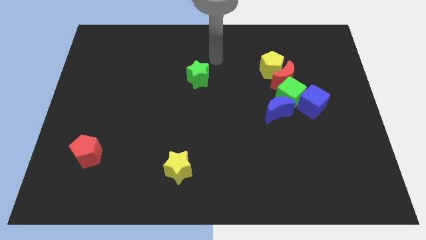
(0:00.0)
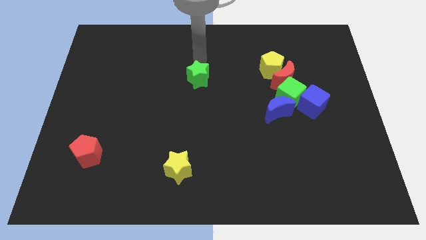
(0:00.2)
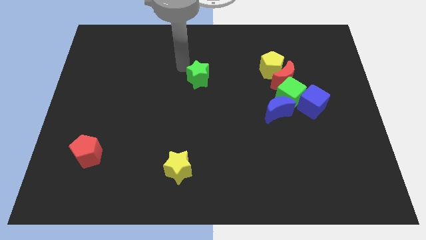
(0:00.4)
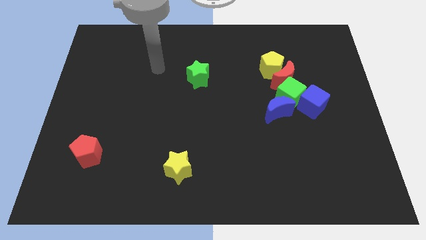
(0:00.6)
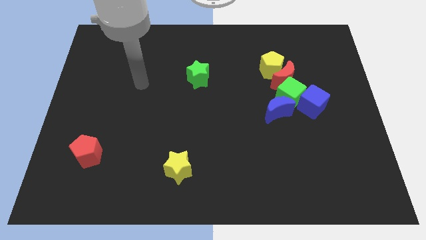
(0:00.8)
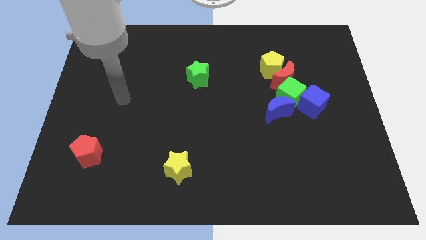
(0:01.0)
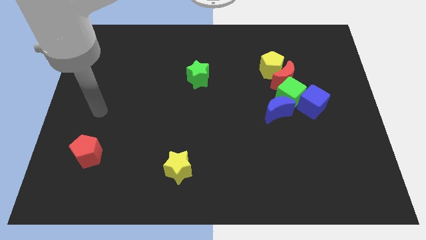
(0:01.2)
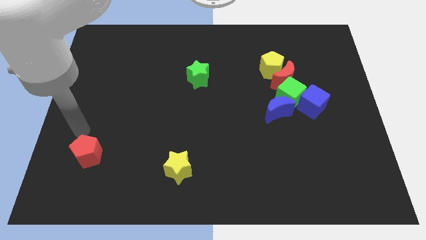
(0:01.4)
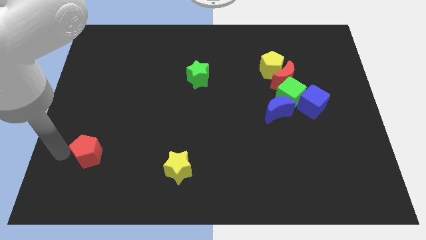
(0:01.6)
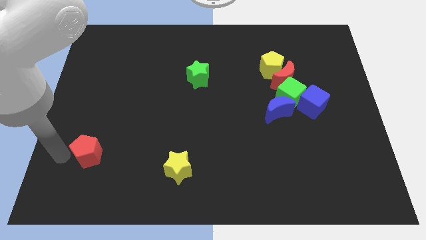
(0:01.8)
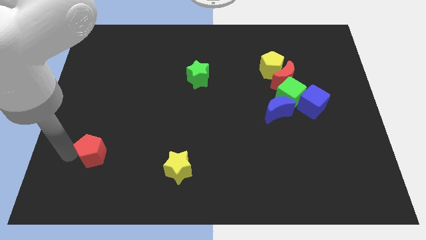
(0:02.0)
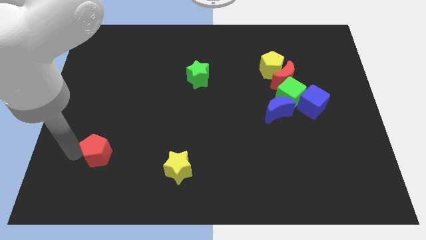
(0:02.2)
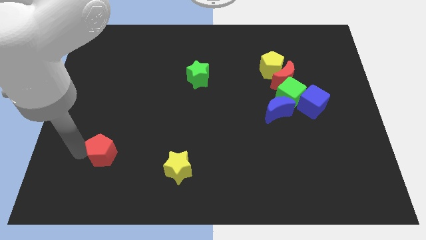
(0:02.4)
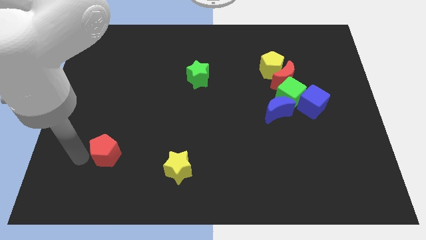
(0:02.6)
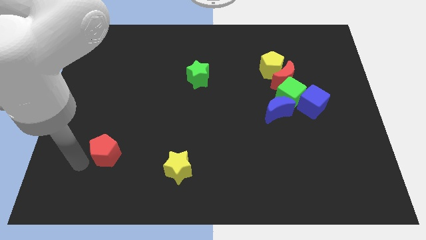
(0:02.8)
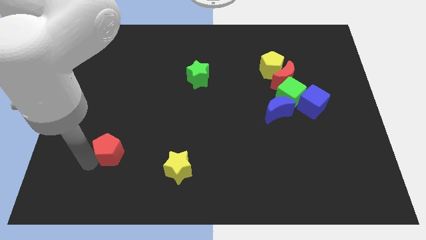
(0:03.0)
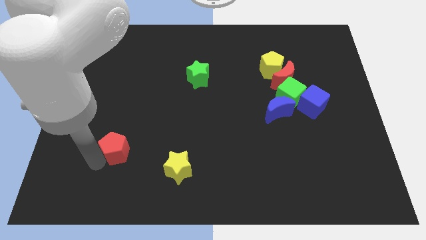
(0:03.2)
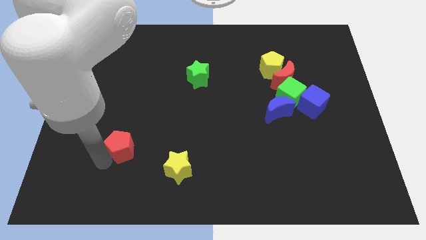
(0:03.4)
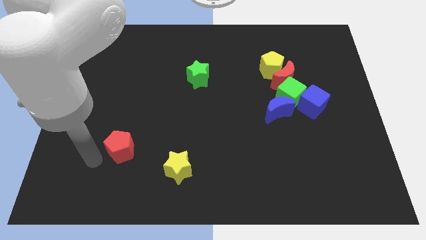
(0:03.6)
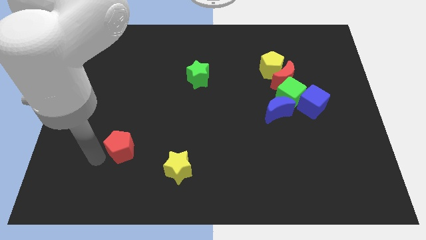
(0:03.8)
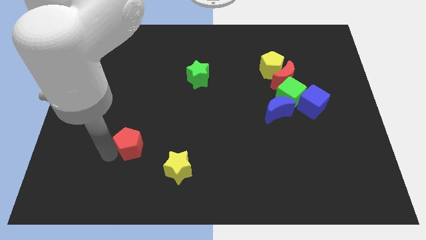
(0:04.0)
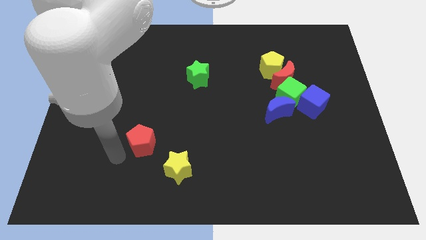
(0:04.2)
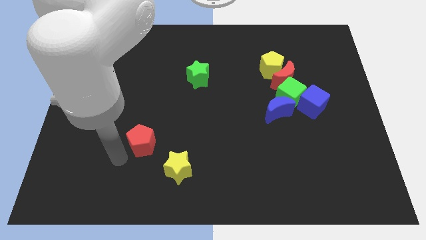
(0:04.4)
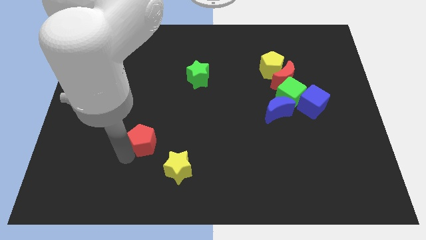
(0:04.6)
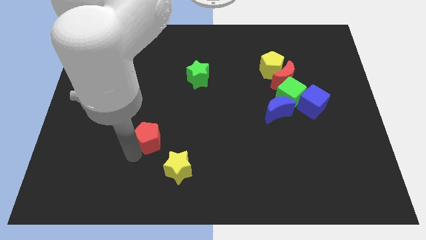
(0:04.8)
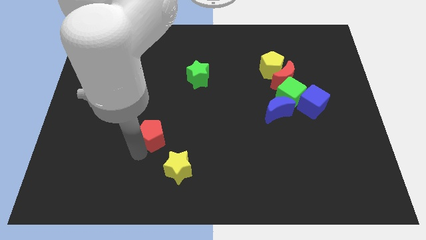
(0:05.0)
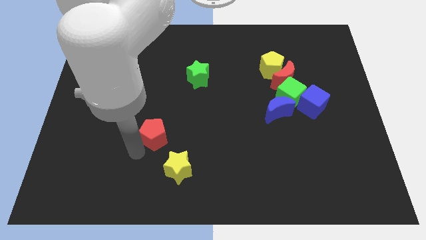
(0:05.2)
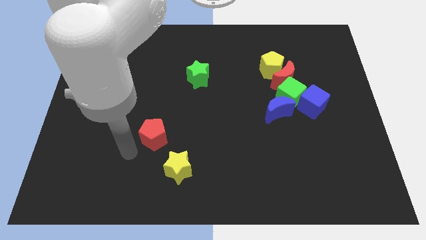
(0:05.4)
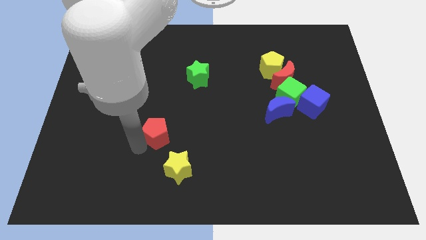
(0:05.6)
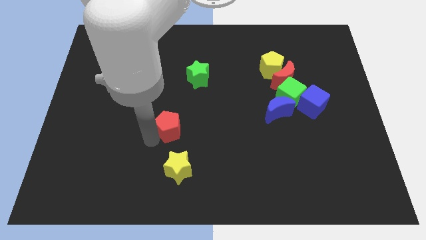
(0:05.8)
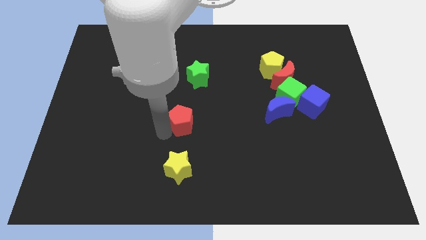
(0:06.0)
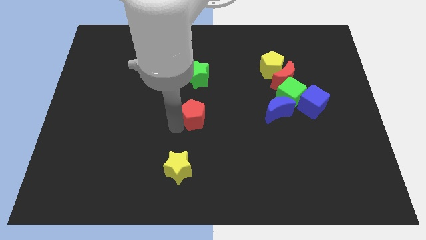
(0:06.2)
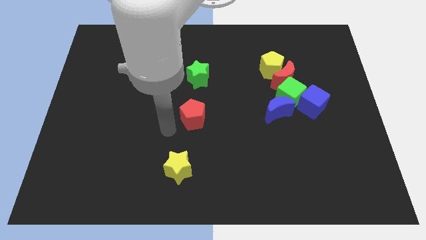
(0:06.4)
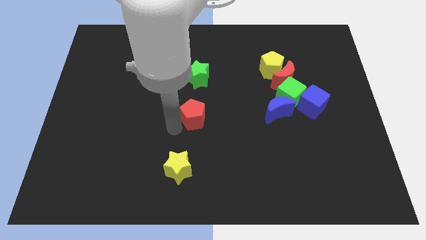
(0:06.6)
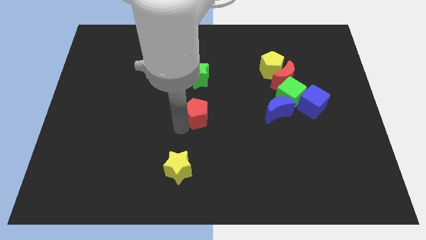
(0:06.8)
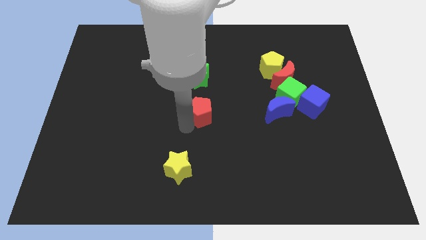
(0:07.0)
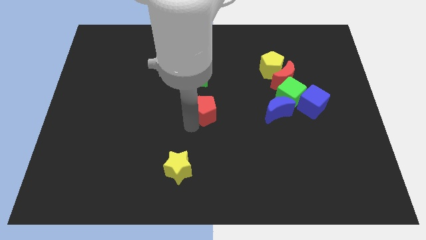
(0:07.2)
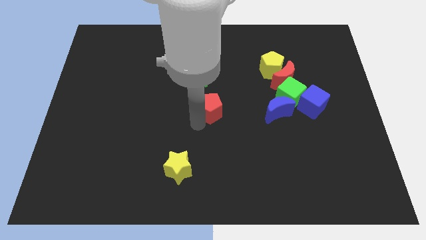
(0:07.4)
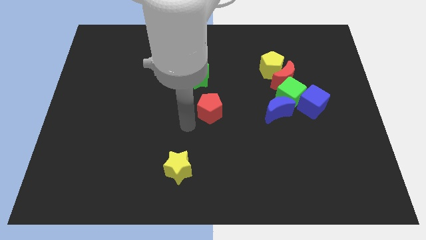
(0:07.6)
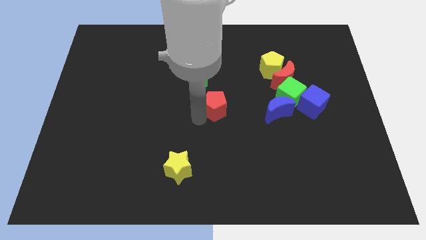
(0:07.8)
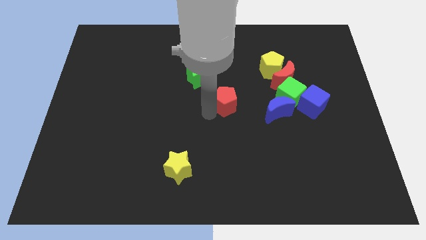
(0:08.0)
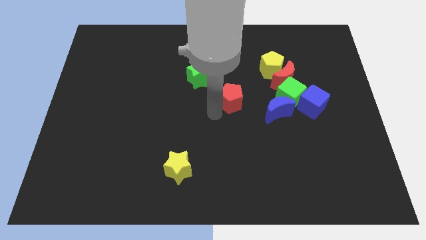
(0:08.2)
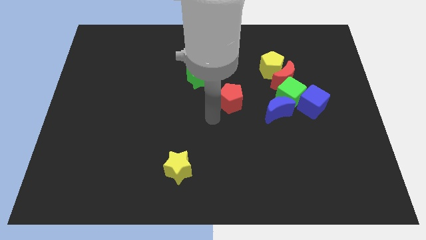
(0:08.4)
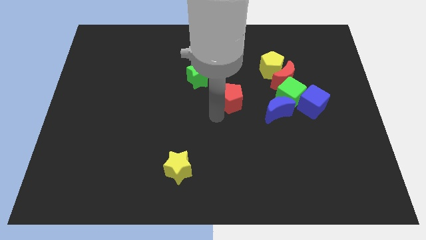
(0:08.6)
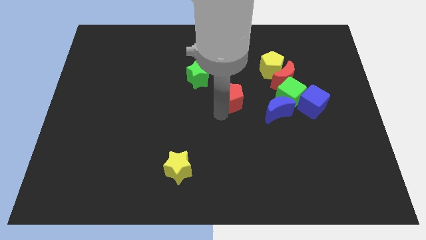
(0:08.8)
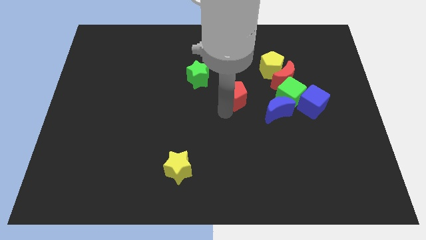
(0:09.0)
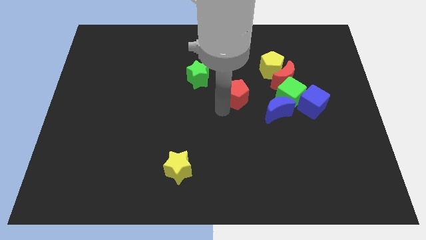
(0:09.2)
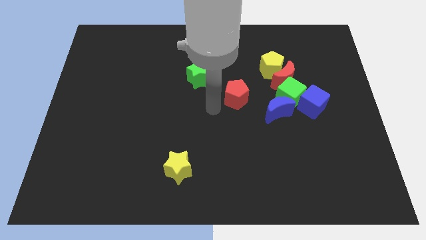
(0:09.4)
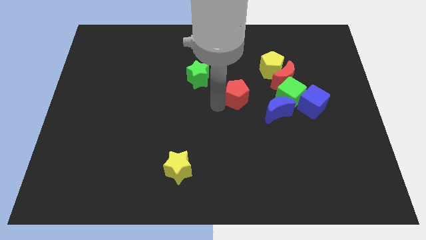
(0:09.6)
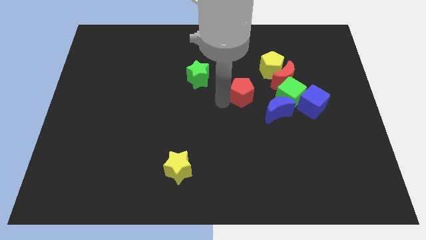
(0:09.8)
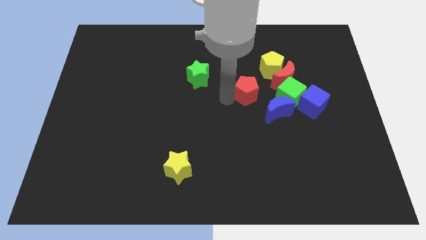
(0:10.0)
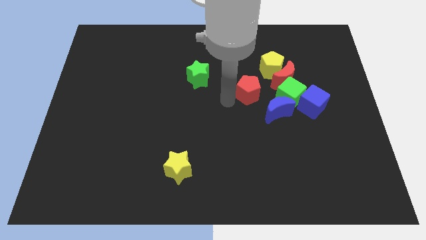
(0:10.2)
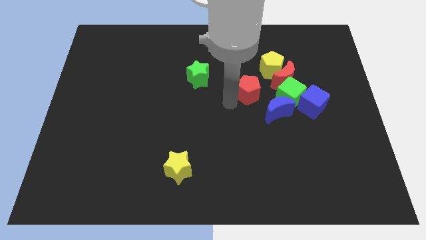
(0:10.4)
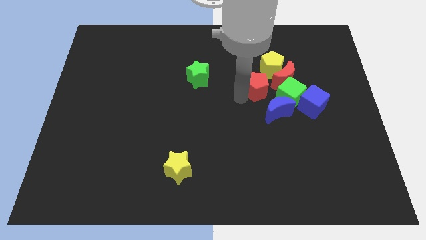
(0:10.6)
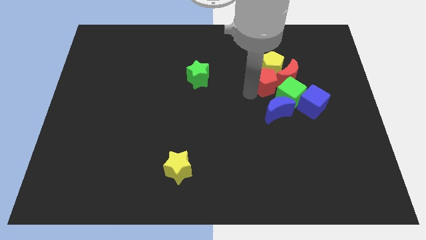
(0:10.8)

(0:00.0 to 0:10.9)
slide the red pentagon close to the red moon

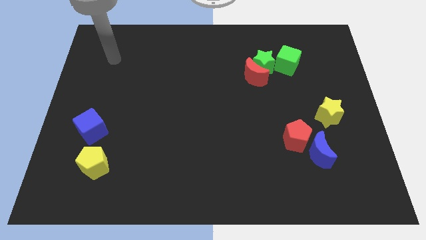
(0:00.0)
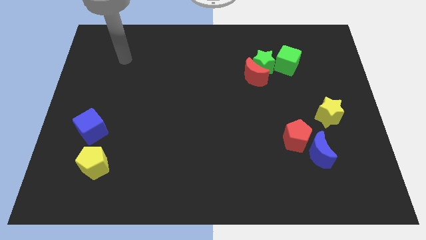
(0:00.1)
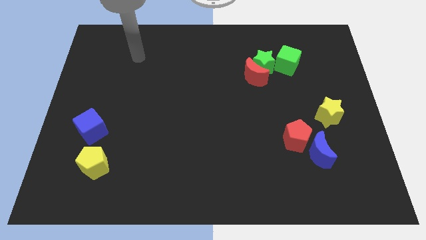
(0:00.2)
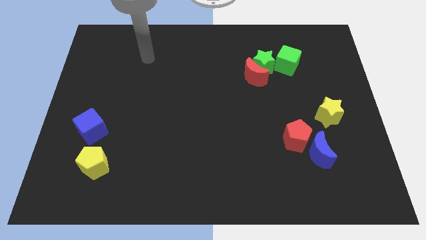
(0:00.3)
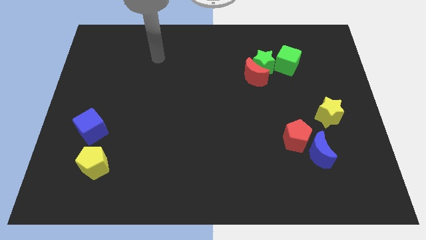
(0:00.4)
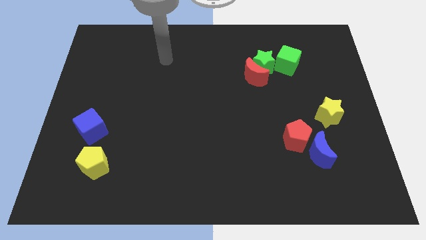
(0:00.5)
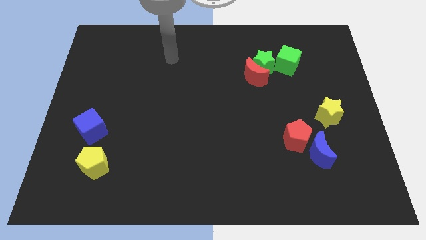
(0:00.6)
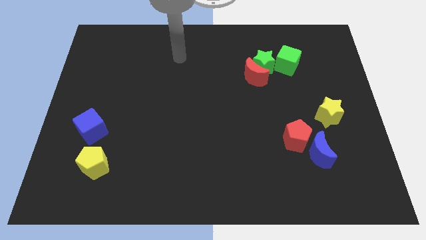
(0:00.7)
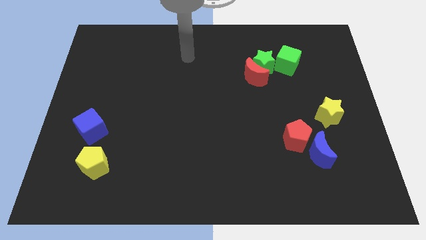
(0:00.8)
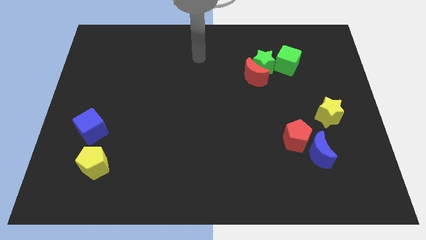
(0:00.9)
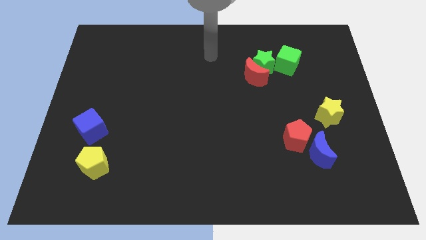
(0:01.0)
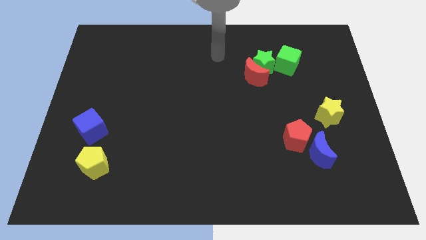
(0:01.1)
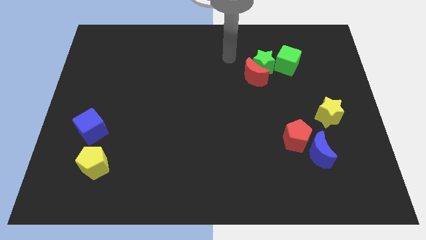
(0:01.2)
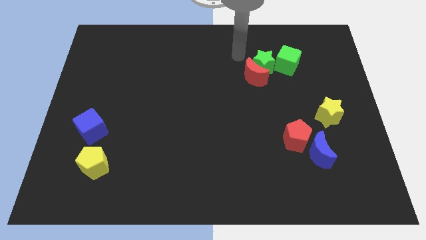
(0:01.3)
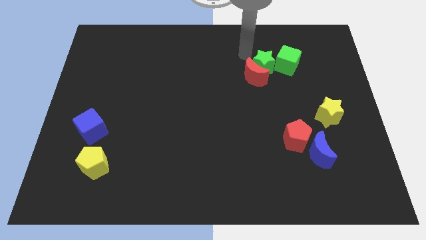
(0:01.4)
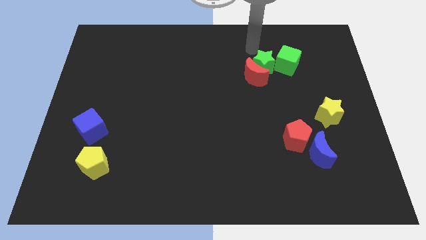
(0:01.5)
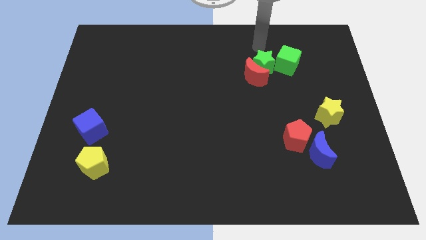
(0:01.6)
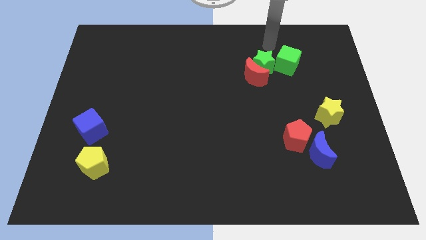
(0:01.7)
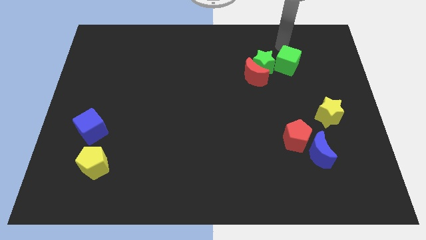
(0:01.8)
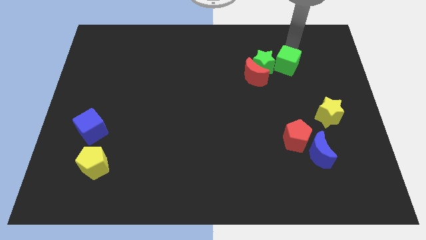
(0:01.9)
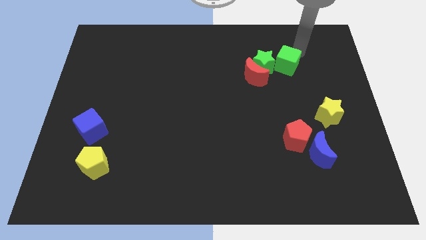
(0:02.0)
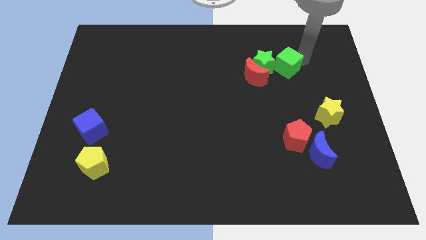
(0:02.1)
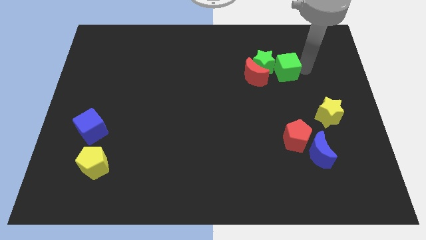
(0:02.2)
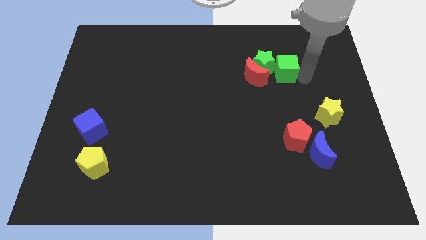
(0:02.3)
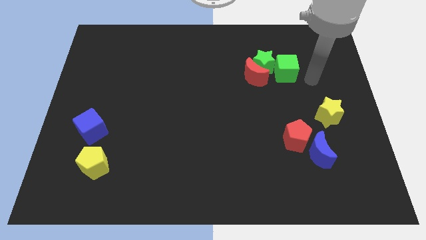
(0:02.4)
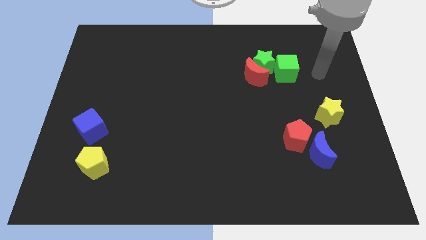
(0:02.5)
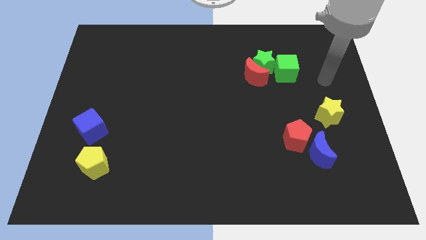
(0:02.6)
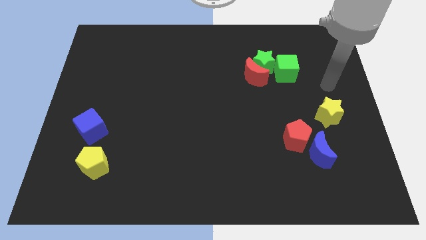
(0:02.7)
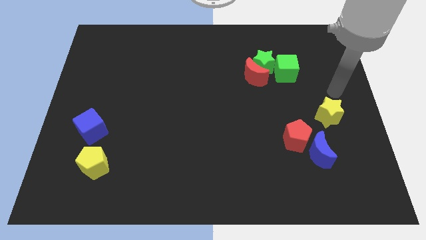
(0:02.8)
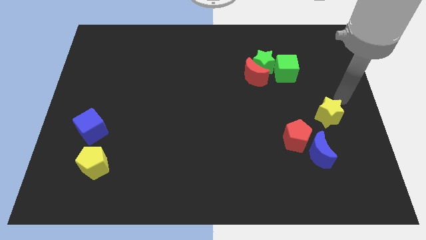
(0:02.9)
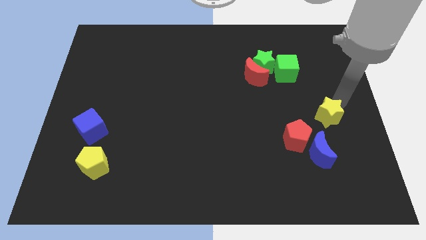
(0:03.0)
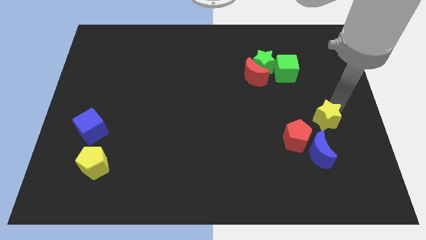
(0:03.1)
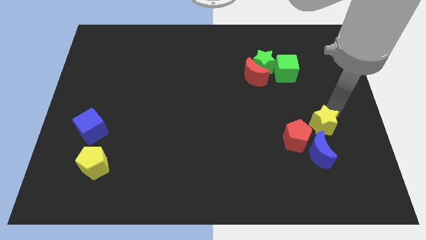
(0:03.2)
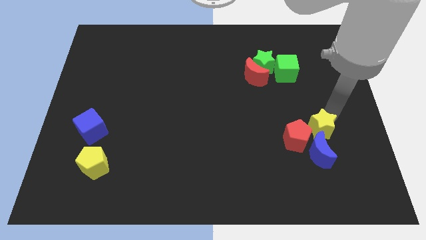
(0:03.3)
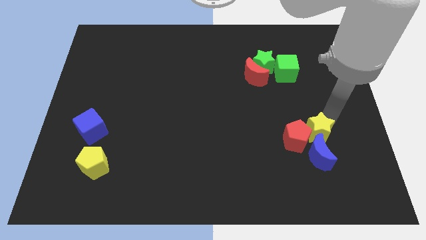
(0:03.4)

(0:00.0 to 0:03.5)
put the yellow star close to the red pentagon
